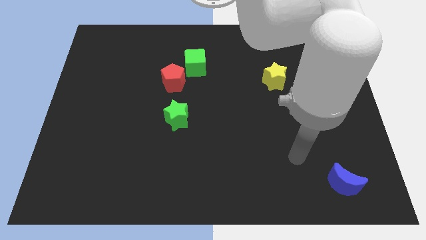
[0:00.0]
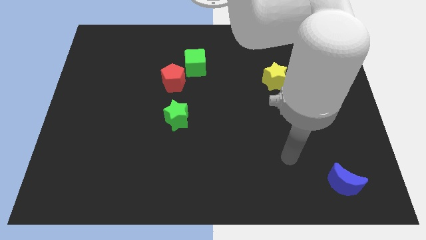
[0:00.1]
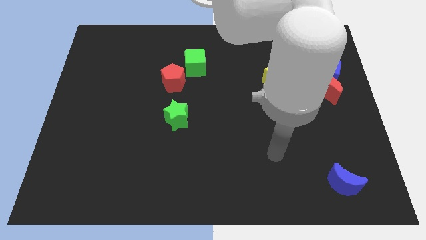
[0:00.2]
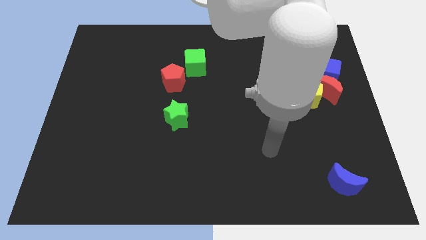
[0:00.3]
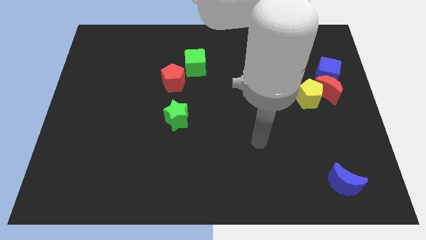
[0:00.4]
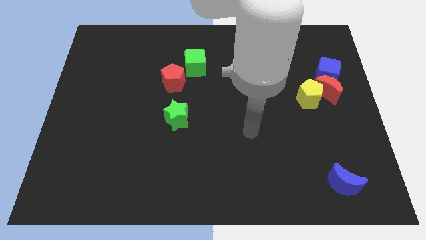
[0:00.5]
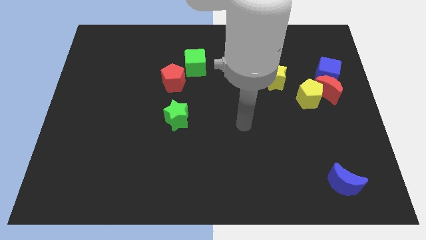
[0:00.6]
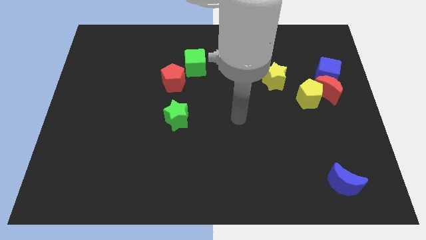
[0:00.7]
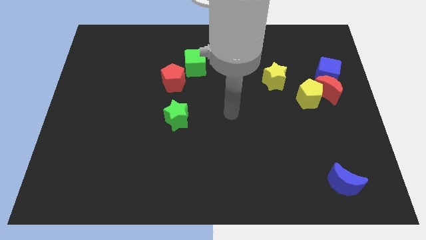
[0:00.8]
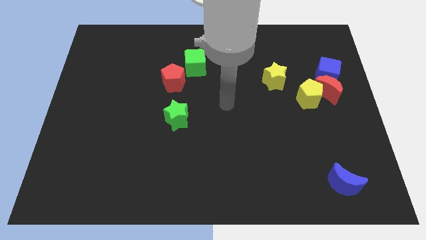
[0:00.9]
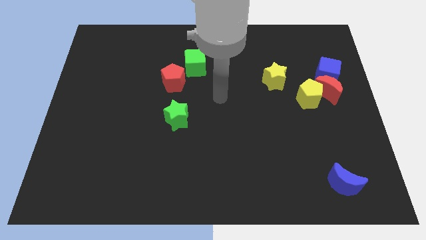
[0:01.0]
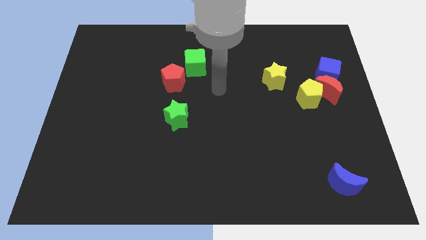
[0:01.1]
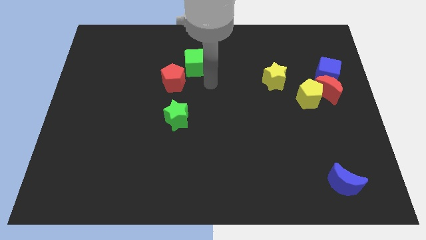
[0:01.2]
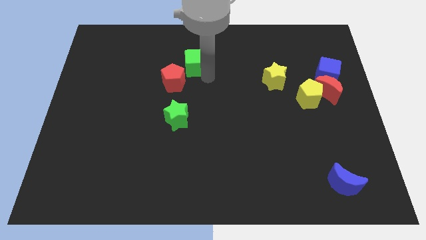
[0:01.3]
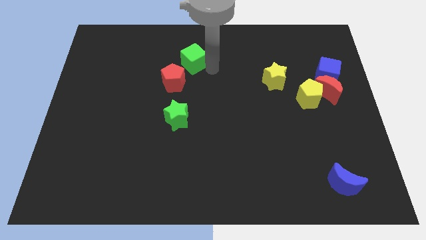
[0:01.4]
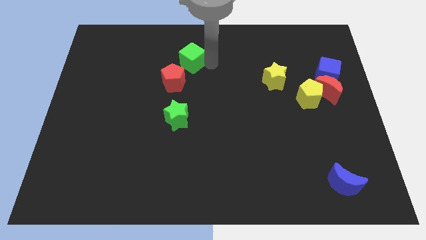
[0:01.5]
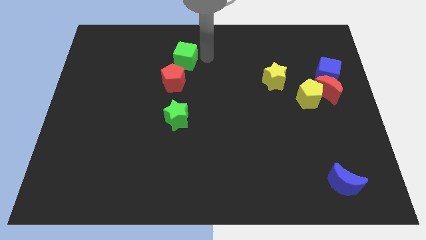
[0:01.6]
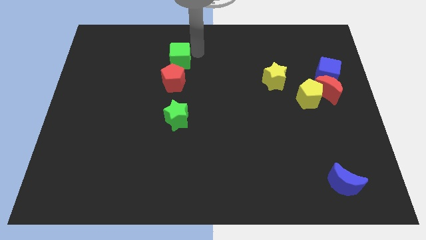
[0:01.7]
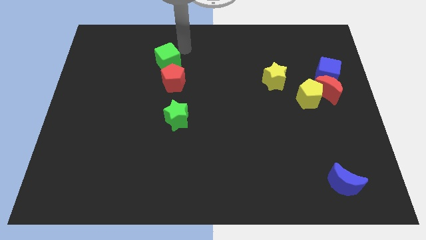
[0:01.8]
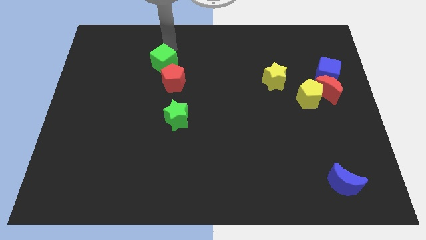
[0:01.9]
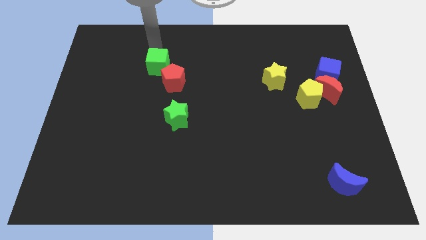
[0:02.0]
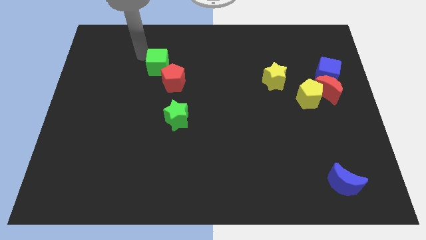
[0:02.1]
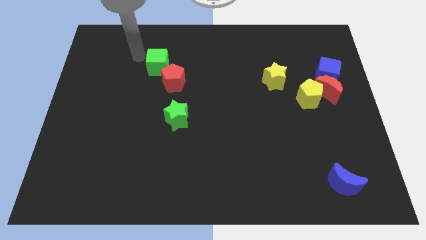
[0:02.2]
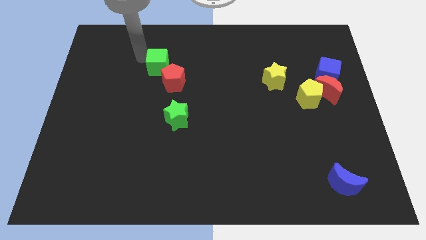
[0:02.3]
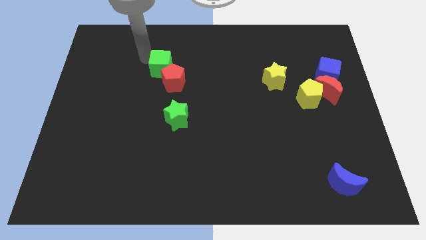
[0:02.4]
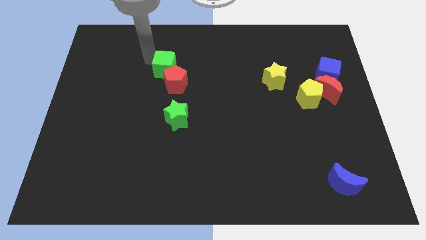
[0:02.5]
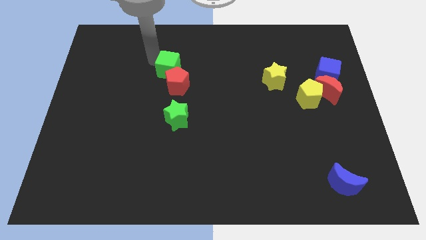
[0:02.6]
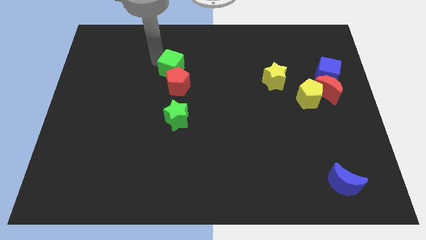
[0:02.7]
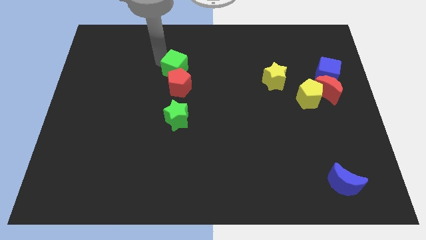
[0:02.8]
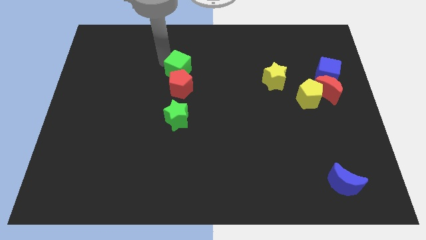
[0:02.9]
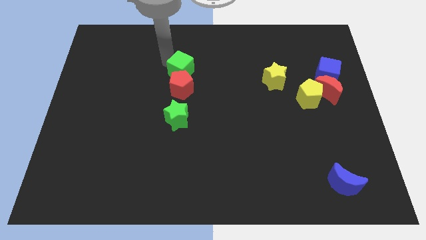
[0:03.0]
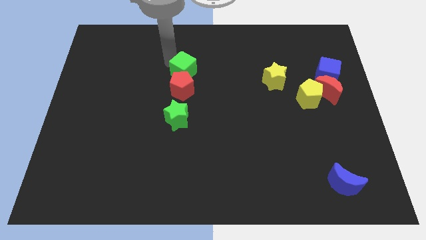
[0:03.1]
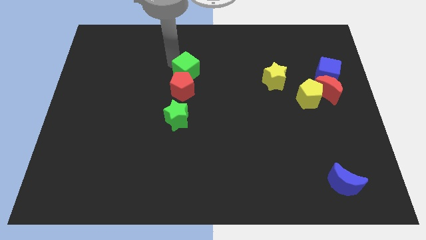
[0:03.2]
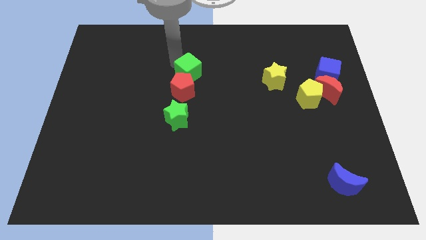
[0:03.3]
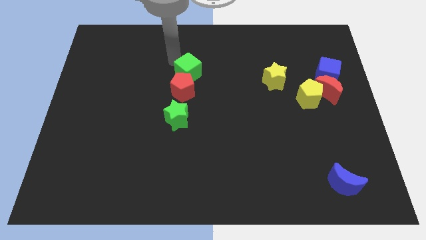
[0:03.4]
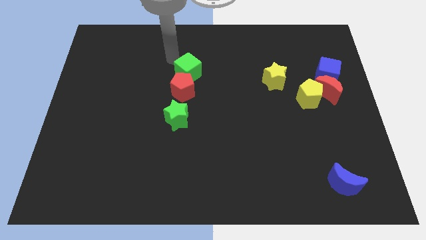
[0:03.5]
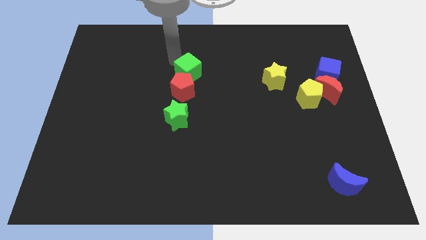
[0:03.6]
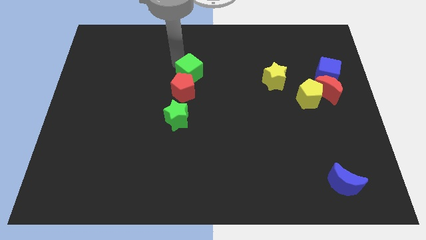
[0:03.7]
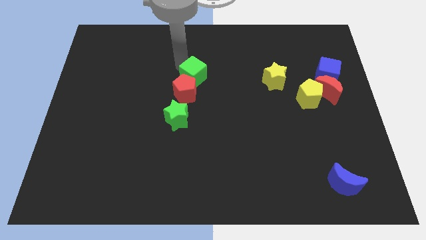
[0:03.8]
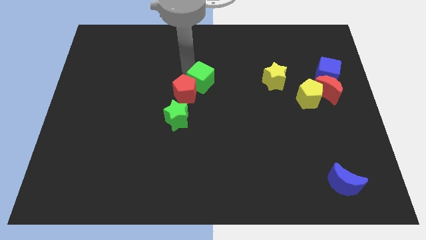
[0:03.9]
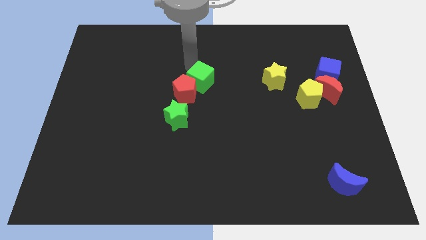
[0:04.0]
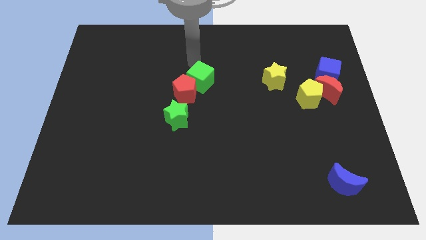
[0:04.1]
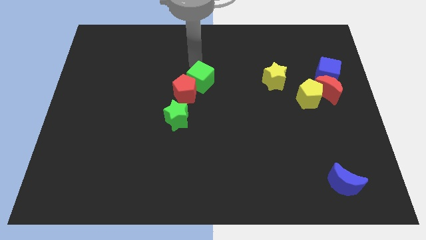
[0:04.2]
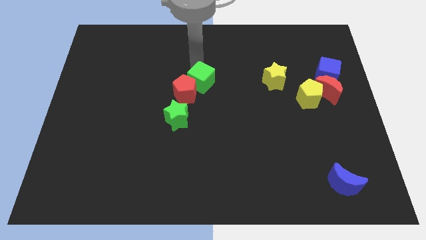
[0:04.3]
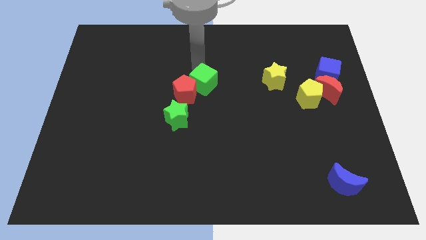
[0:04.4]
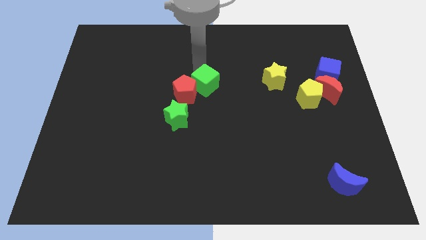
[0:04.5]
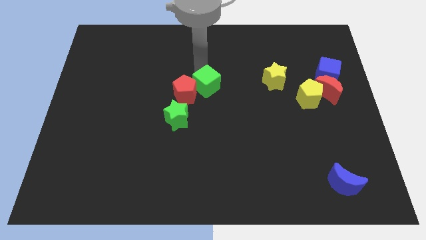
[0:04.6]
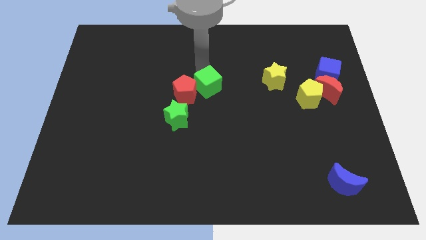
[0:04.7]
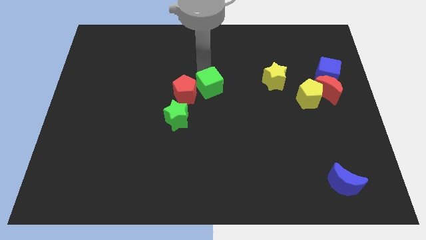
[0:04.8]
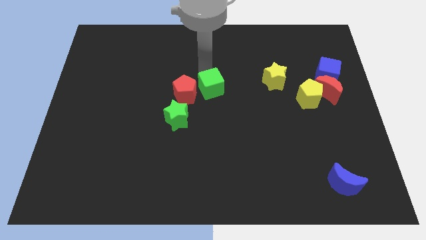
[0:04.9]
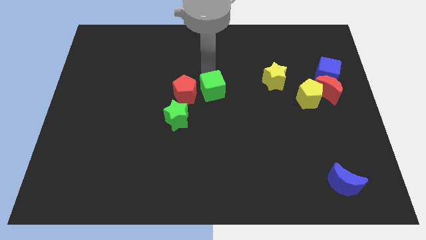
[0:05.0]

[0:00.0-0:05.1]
slightly slide the green cube downwards

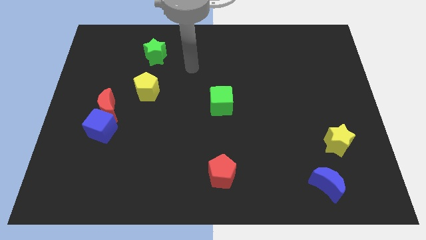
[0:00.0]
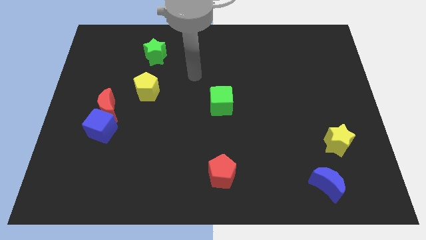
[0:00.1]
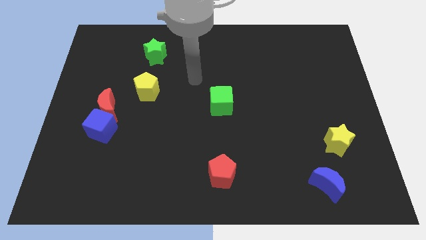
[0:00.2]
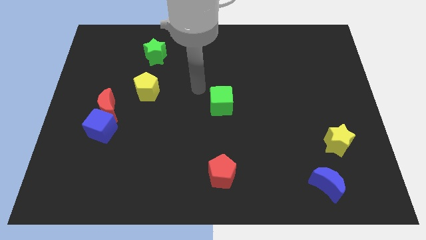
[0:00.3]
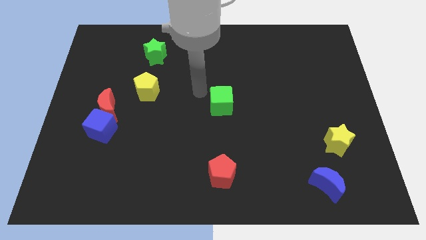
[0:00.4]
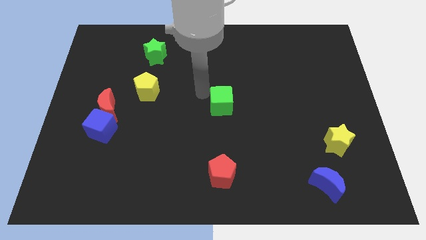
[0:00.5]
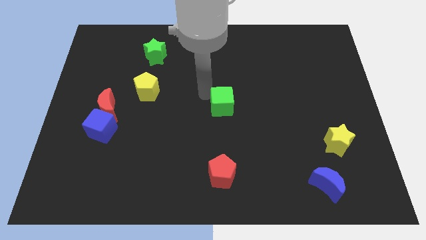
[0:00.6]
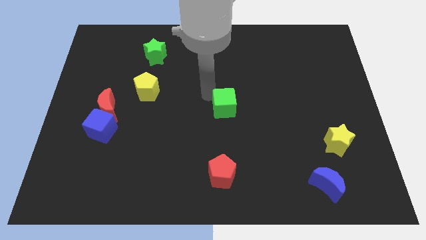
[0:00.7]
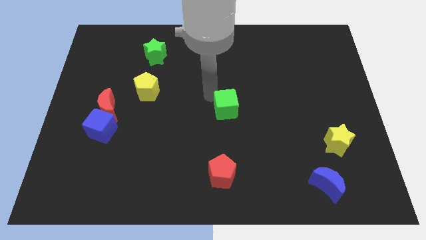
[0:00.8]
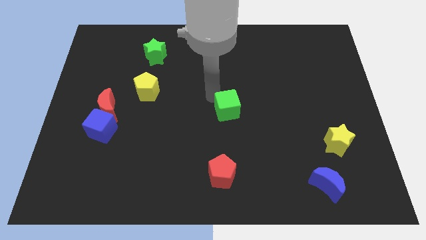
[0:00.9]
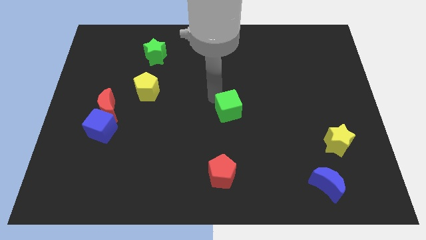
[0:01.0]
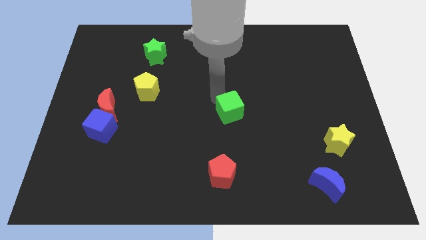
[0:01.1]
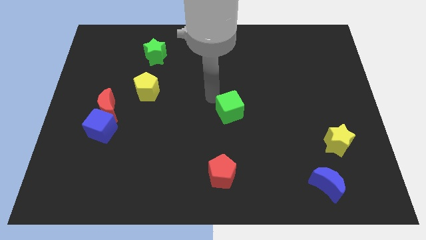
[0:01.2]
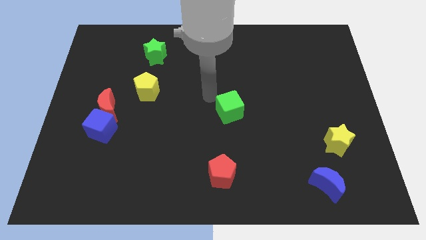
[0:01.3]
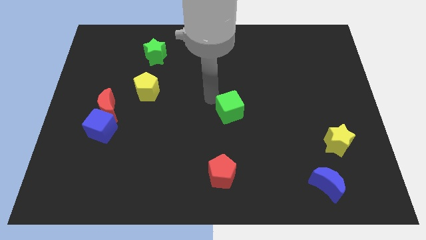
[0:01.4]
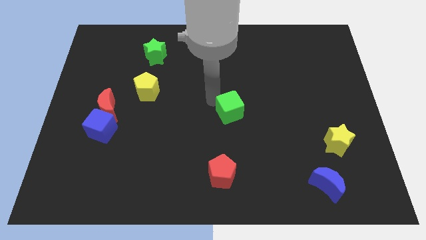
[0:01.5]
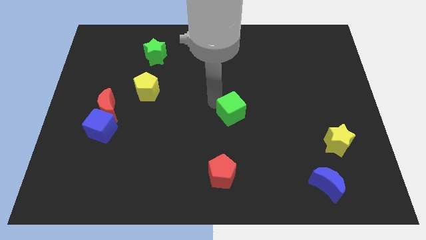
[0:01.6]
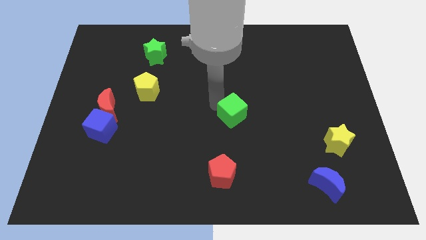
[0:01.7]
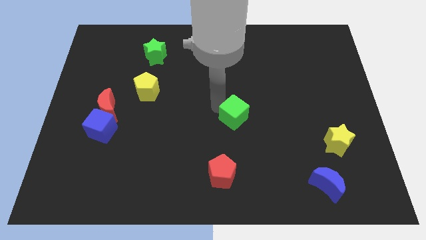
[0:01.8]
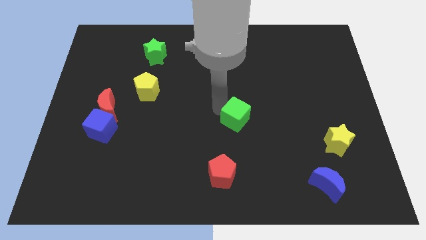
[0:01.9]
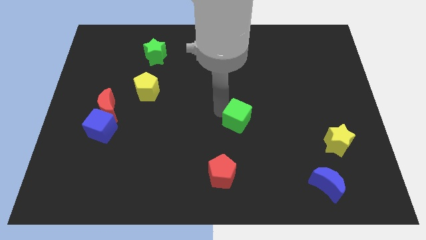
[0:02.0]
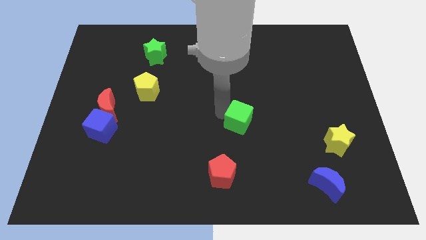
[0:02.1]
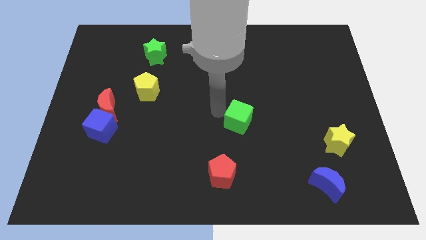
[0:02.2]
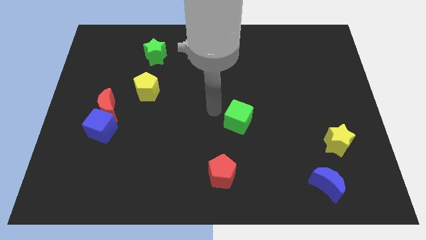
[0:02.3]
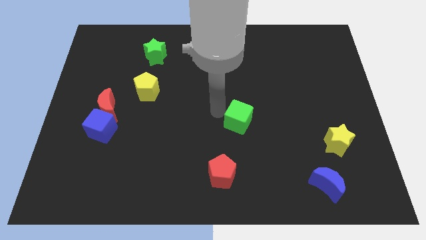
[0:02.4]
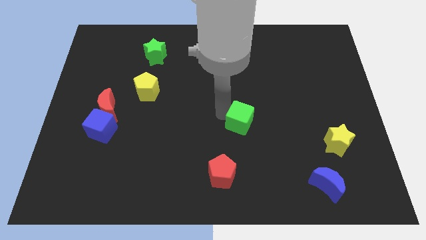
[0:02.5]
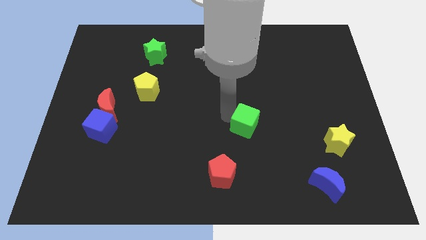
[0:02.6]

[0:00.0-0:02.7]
slightly slide the green cube diagonally down and to the right

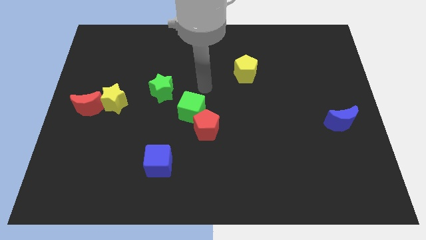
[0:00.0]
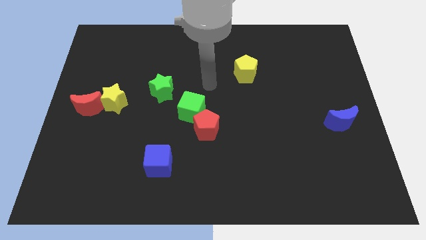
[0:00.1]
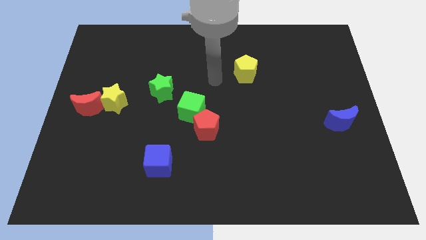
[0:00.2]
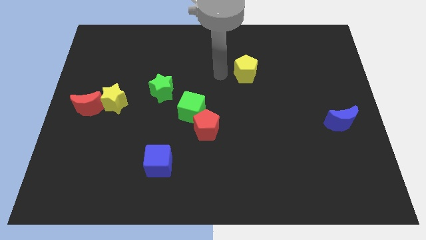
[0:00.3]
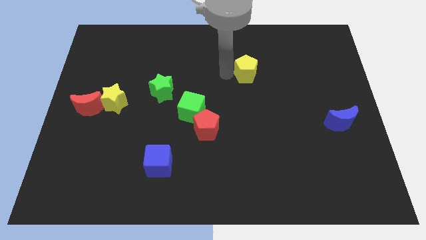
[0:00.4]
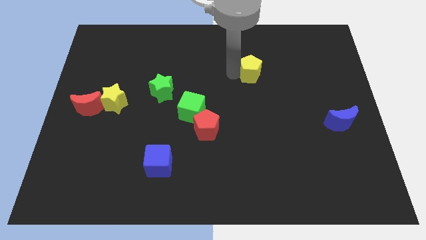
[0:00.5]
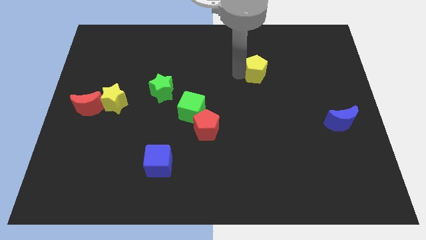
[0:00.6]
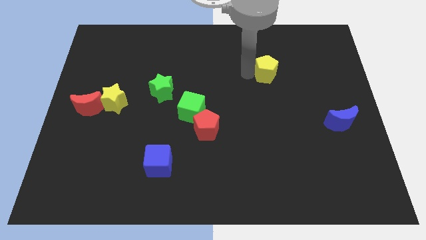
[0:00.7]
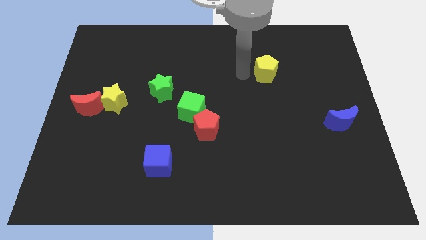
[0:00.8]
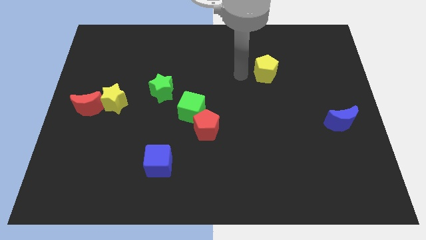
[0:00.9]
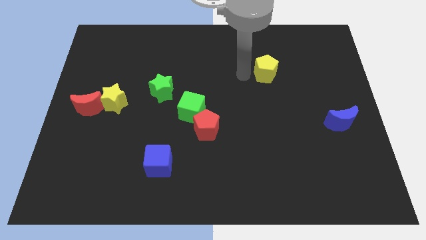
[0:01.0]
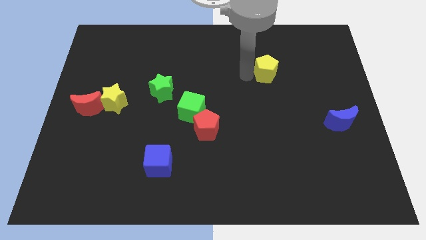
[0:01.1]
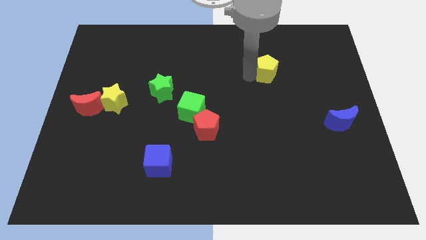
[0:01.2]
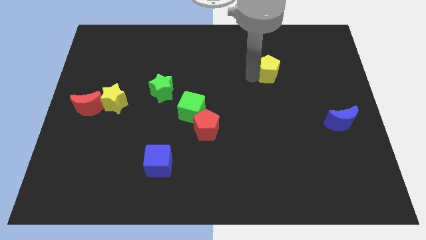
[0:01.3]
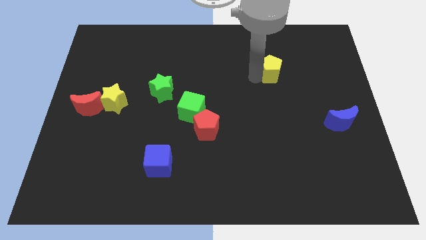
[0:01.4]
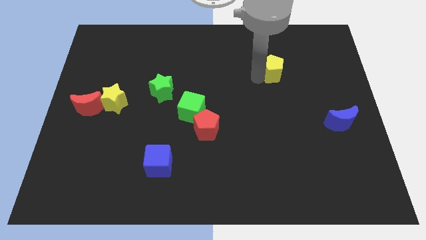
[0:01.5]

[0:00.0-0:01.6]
move the yellow pentagon a little bit right
